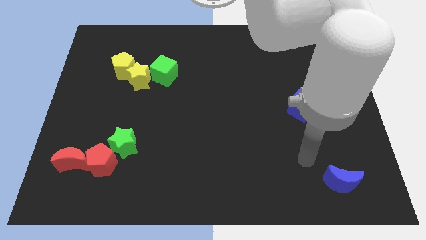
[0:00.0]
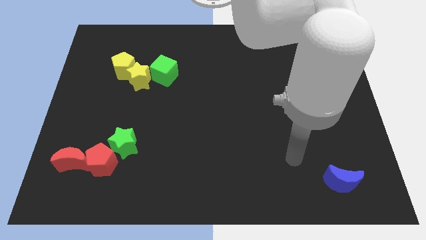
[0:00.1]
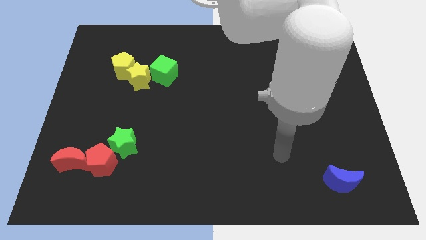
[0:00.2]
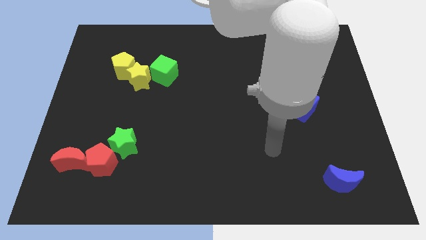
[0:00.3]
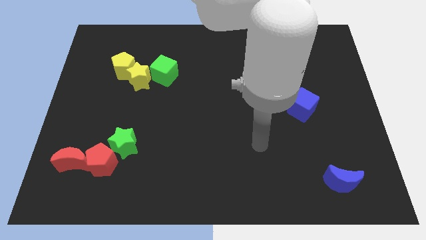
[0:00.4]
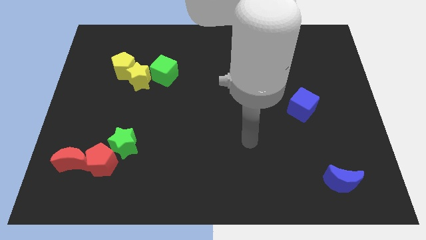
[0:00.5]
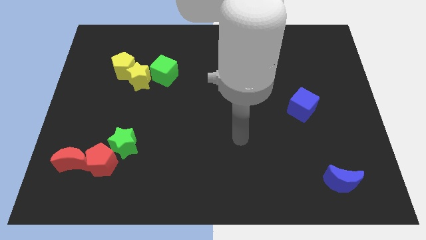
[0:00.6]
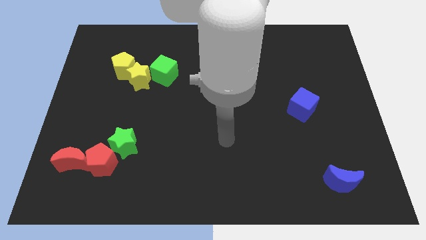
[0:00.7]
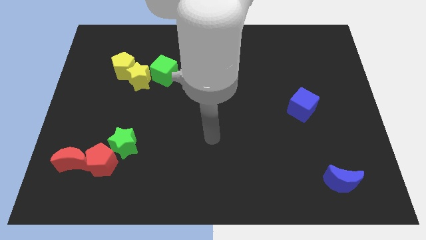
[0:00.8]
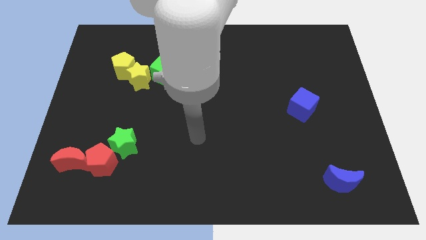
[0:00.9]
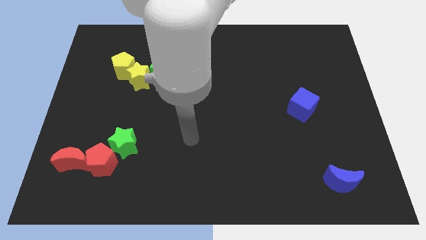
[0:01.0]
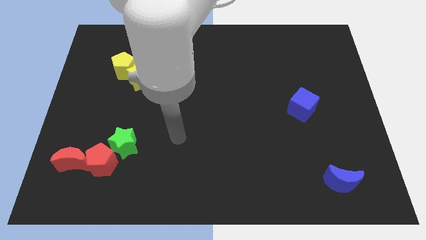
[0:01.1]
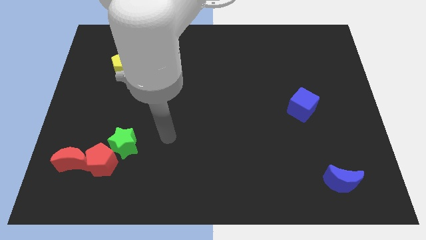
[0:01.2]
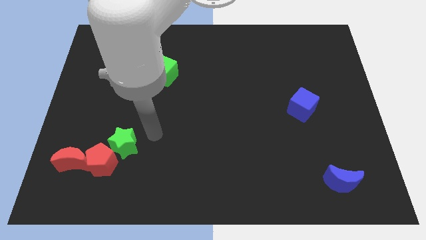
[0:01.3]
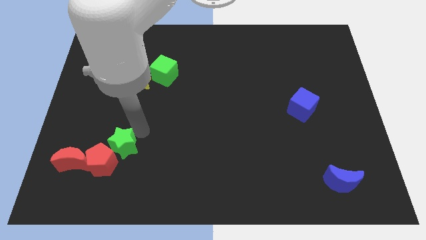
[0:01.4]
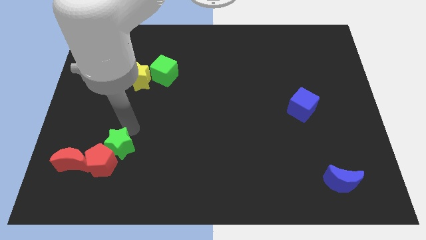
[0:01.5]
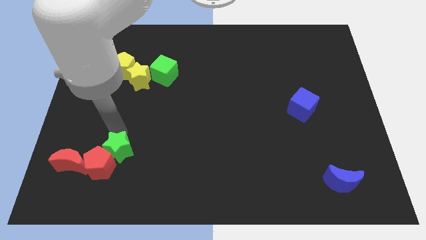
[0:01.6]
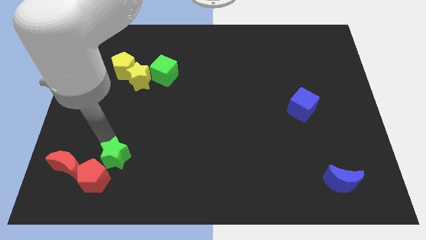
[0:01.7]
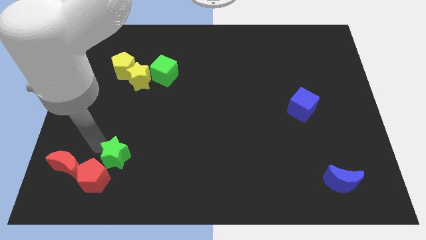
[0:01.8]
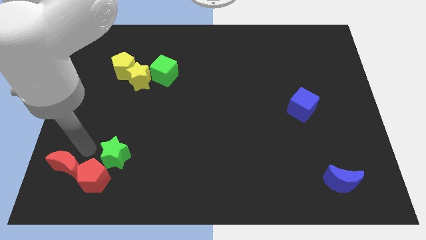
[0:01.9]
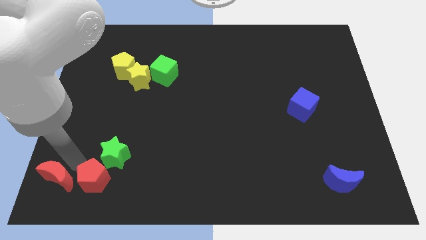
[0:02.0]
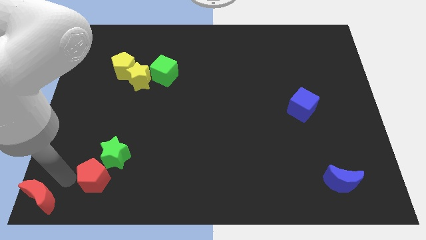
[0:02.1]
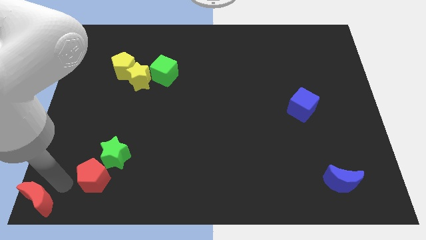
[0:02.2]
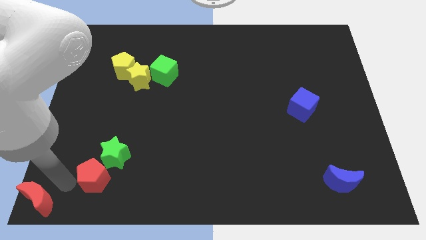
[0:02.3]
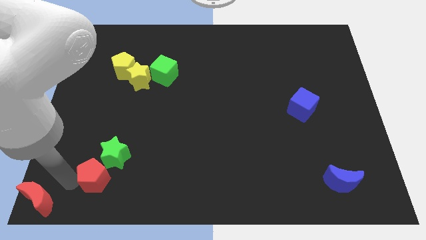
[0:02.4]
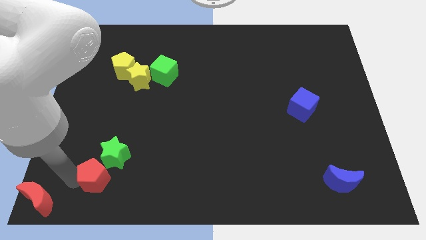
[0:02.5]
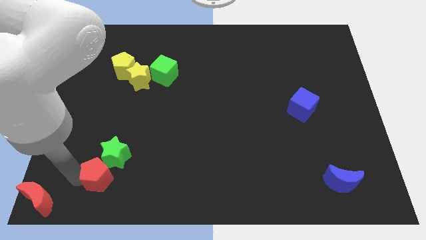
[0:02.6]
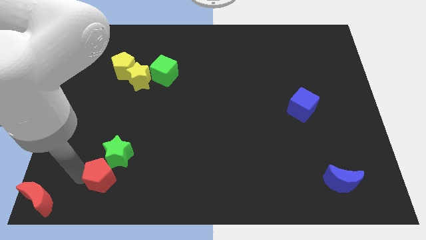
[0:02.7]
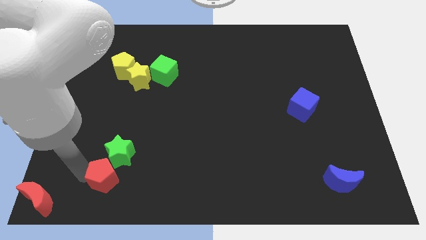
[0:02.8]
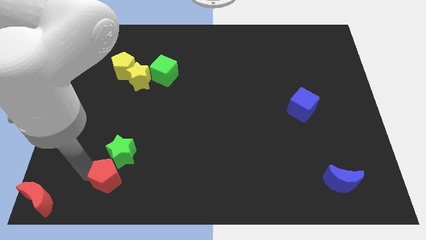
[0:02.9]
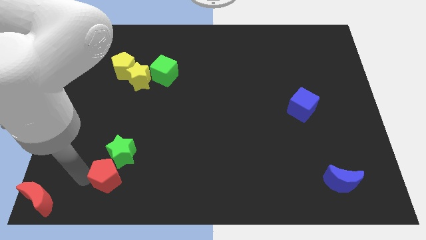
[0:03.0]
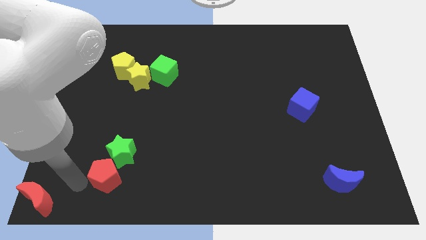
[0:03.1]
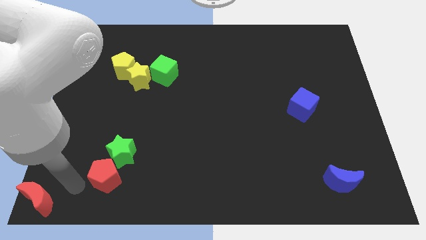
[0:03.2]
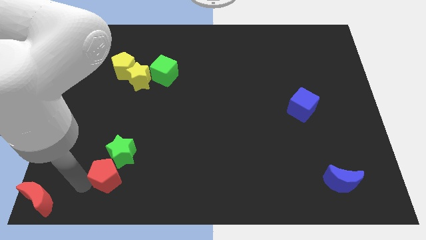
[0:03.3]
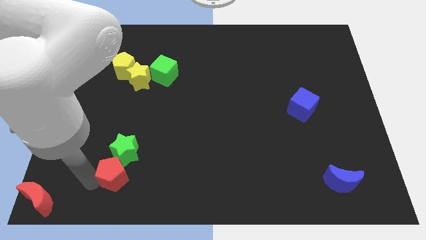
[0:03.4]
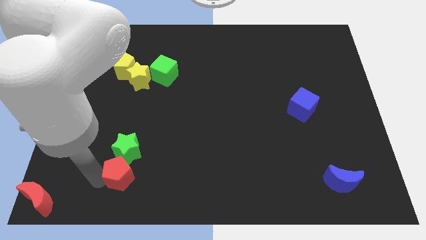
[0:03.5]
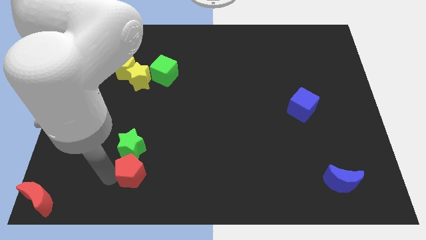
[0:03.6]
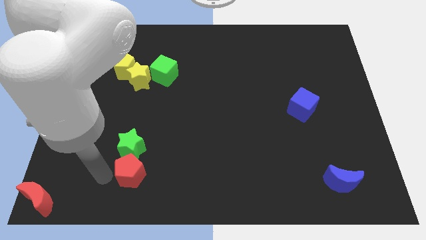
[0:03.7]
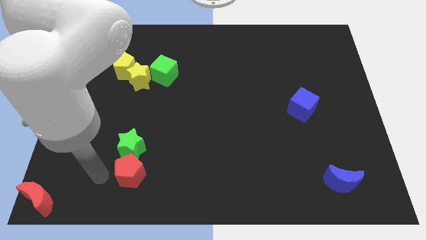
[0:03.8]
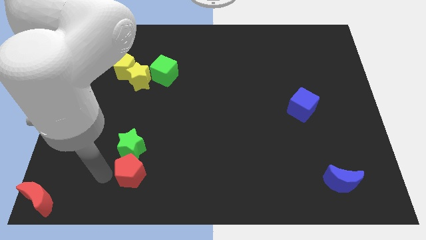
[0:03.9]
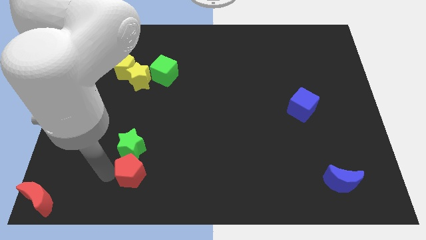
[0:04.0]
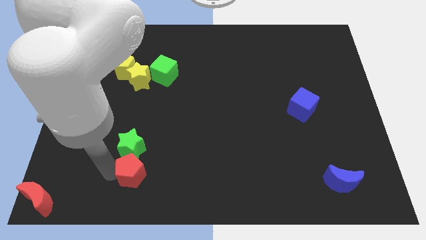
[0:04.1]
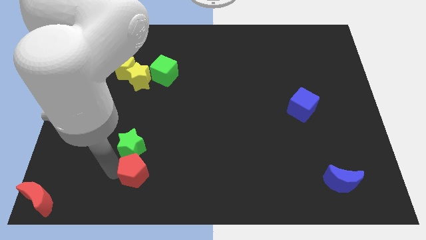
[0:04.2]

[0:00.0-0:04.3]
slightly slide the red pentagon right

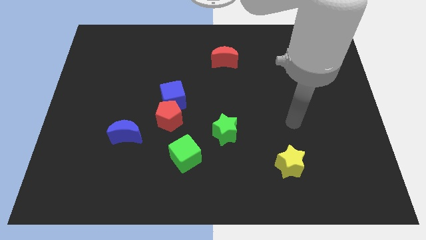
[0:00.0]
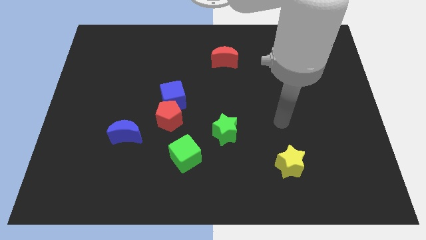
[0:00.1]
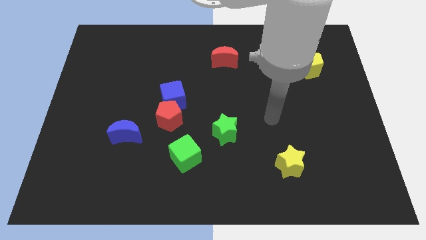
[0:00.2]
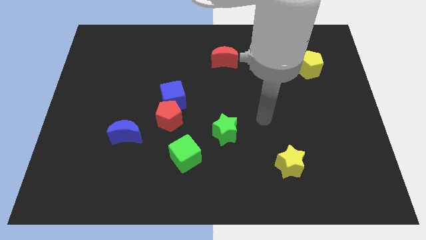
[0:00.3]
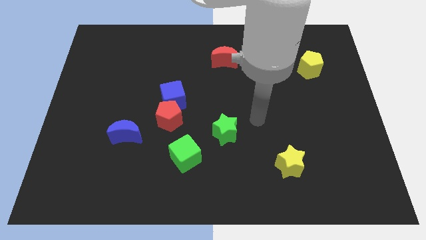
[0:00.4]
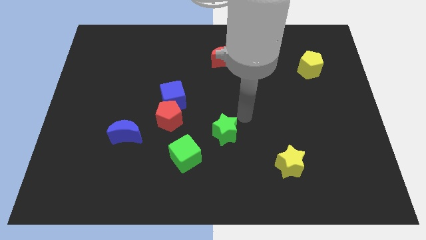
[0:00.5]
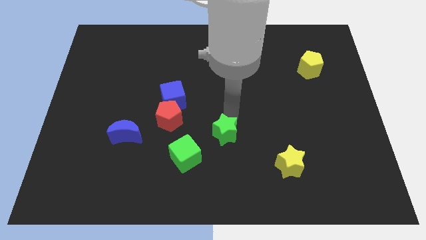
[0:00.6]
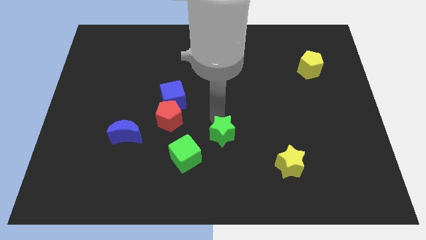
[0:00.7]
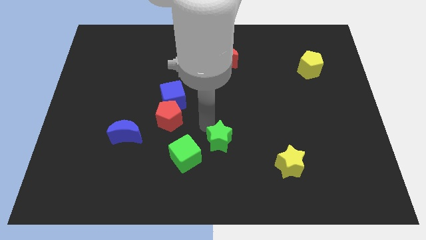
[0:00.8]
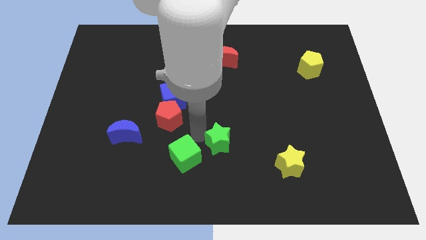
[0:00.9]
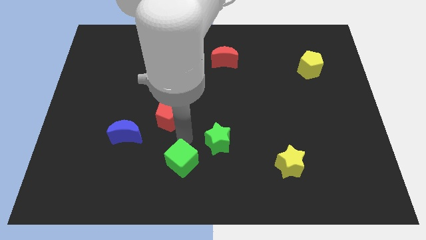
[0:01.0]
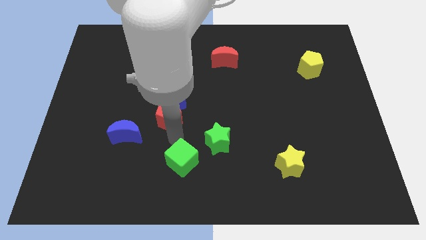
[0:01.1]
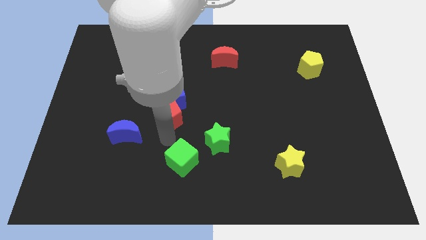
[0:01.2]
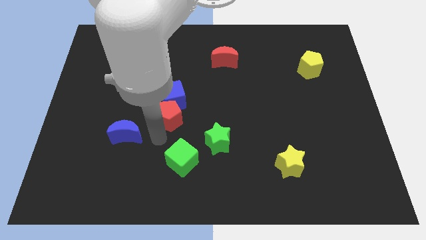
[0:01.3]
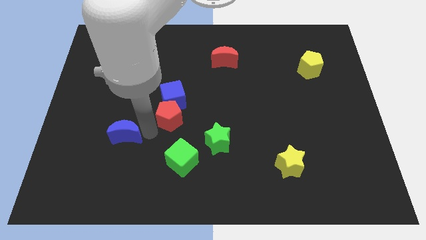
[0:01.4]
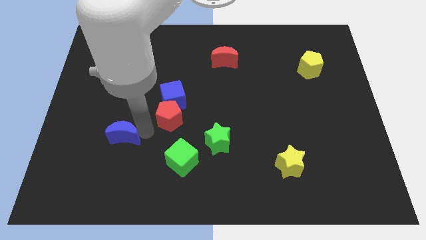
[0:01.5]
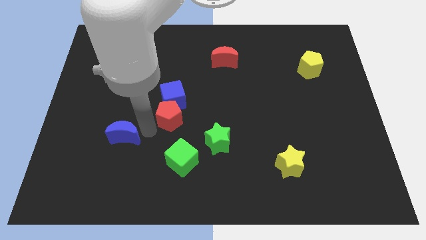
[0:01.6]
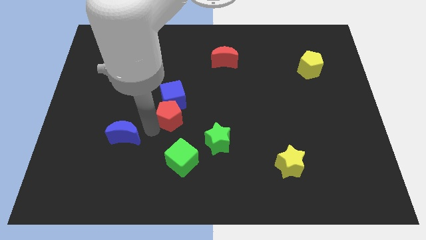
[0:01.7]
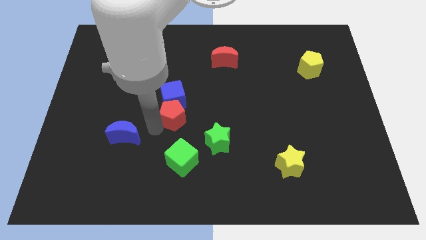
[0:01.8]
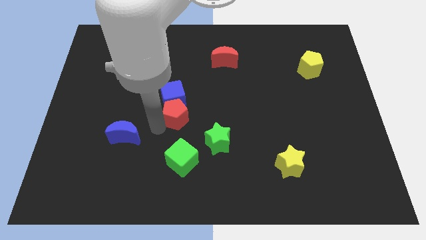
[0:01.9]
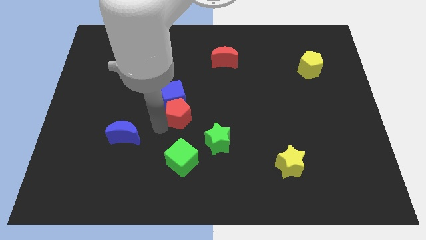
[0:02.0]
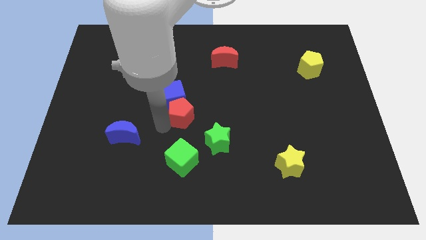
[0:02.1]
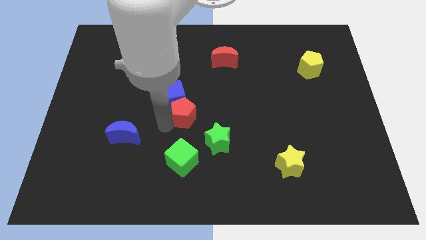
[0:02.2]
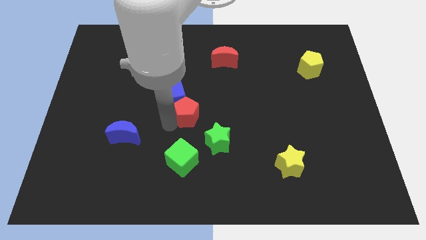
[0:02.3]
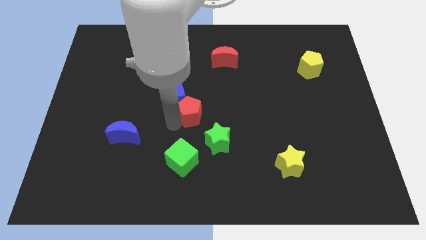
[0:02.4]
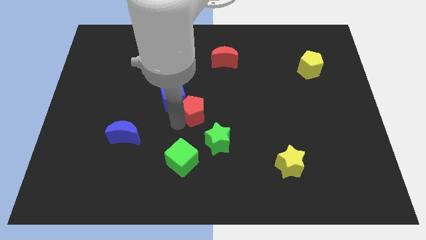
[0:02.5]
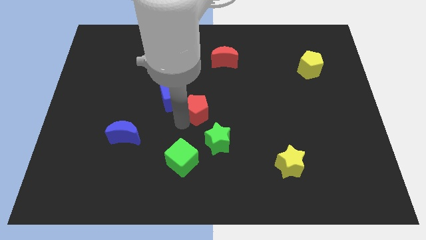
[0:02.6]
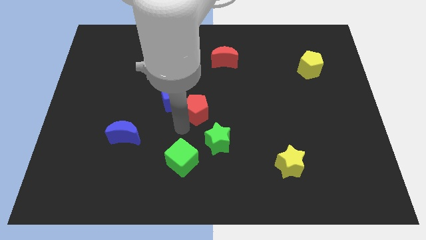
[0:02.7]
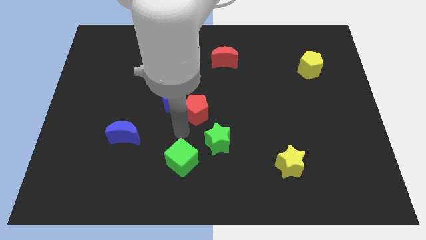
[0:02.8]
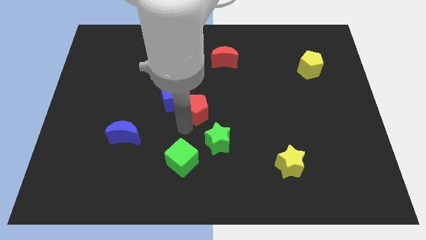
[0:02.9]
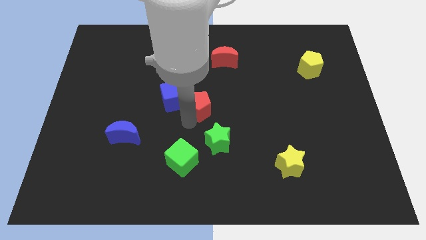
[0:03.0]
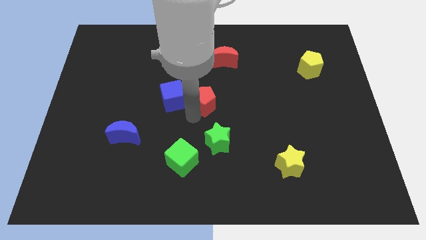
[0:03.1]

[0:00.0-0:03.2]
slightly move the red pentagon upwards and right diagonally

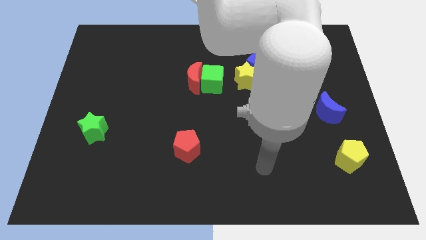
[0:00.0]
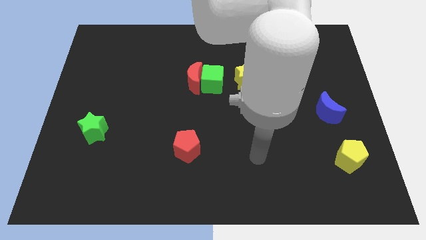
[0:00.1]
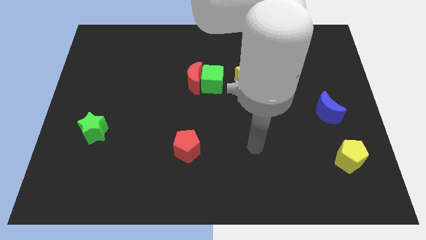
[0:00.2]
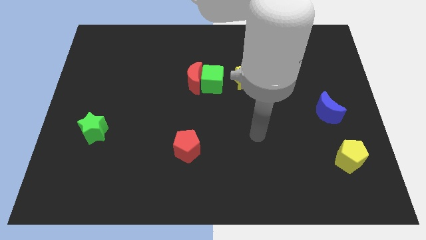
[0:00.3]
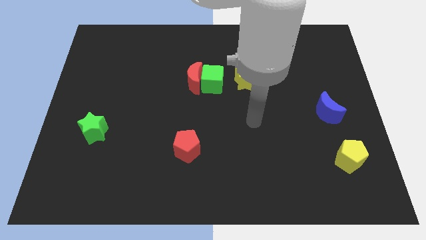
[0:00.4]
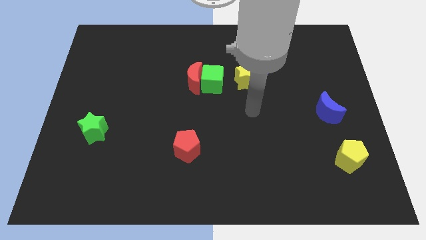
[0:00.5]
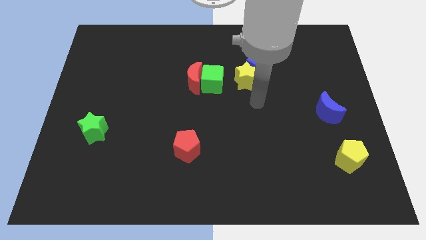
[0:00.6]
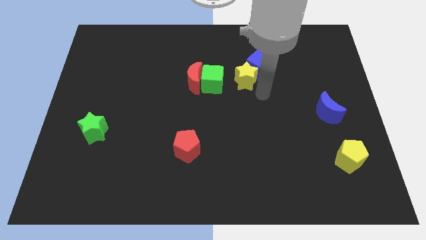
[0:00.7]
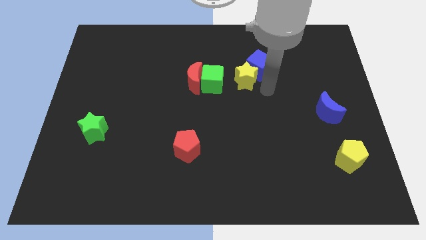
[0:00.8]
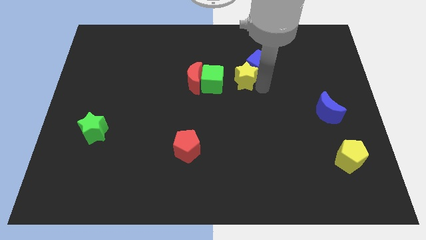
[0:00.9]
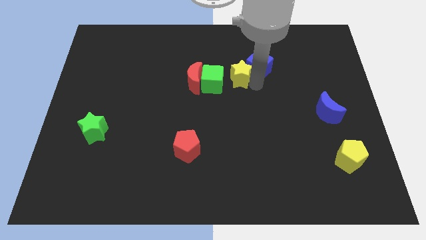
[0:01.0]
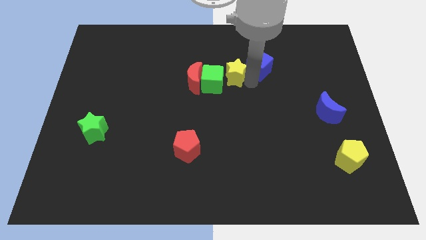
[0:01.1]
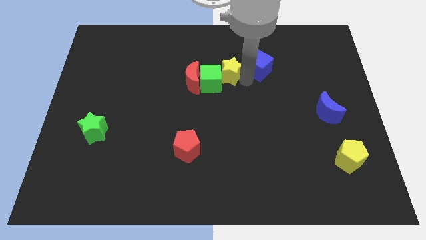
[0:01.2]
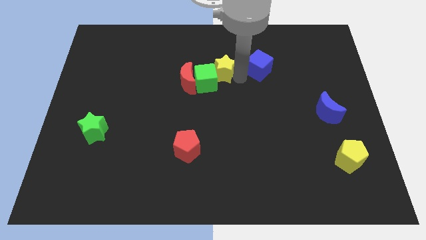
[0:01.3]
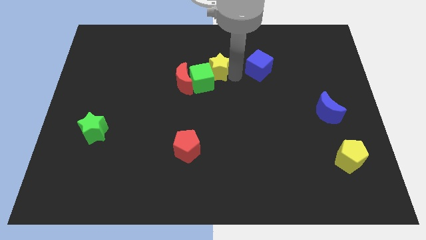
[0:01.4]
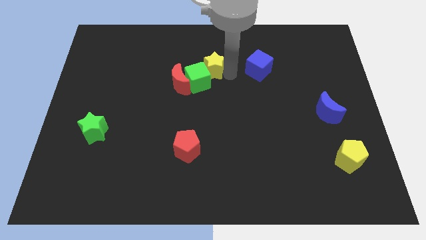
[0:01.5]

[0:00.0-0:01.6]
move the yellow star a bit left
